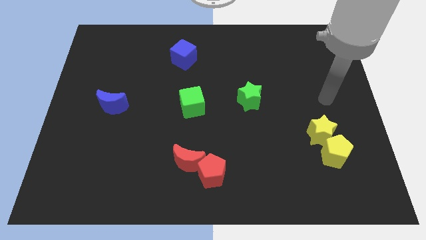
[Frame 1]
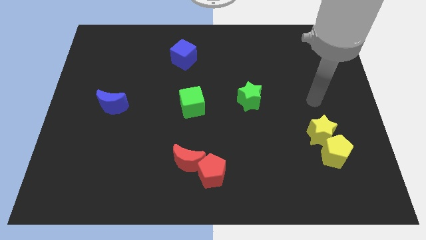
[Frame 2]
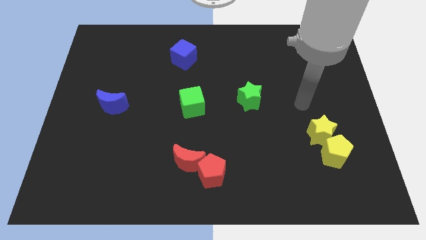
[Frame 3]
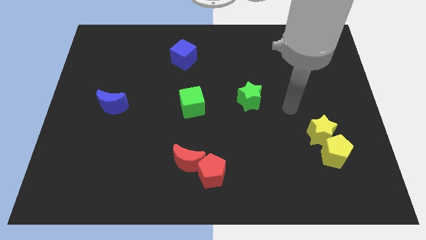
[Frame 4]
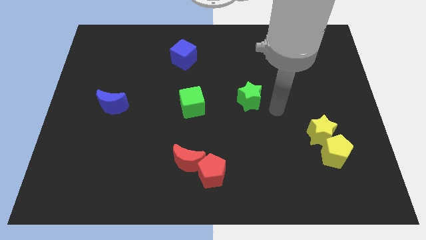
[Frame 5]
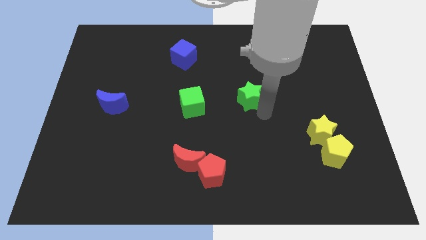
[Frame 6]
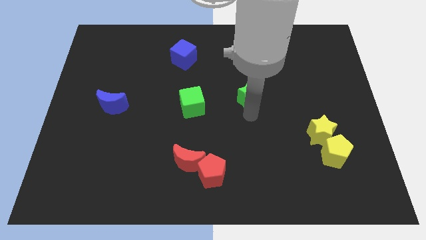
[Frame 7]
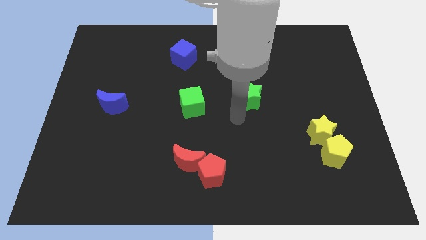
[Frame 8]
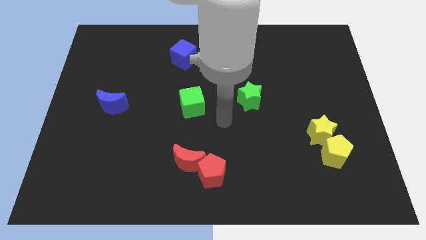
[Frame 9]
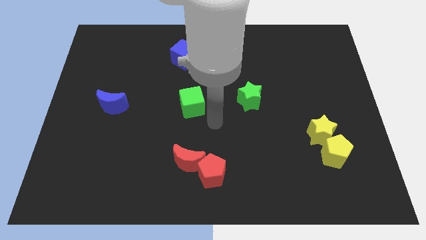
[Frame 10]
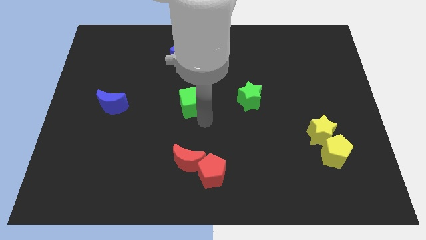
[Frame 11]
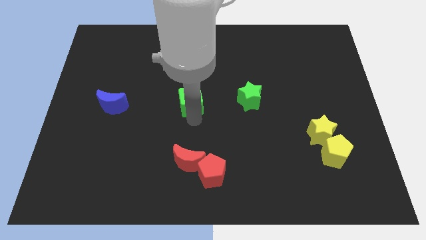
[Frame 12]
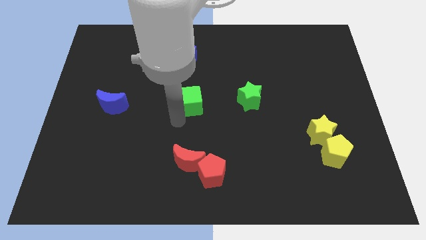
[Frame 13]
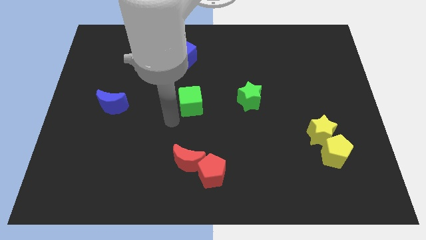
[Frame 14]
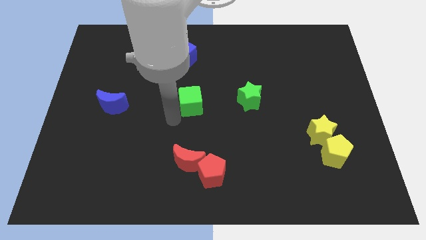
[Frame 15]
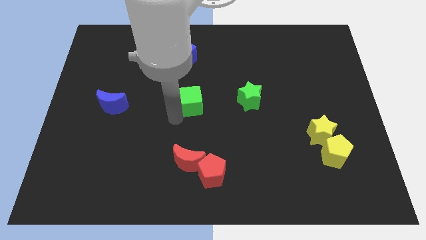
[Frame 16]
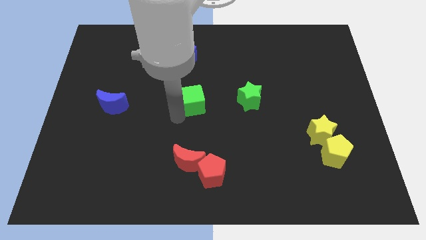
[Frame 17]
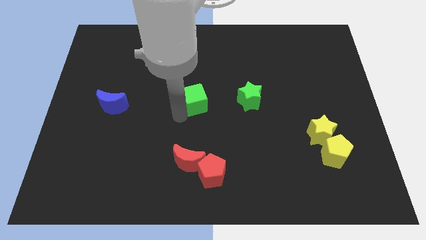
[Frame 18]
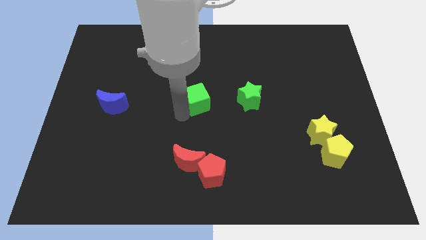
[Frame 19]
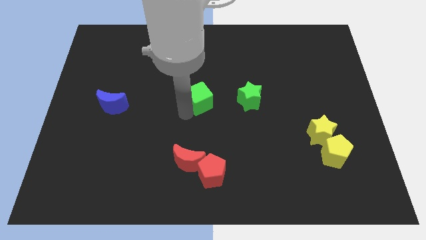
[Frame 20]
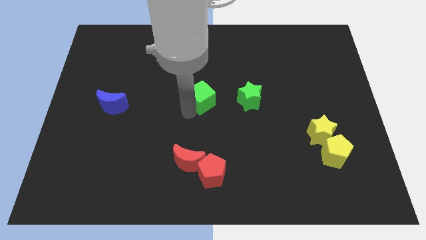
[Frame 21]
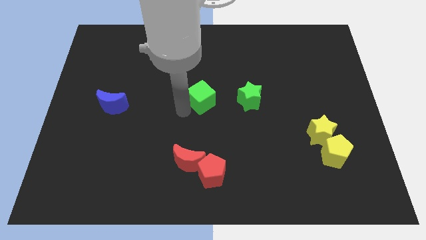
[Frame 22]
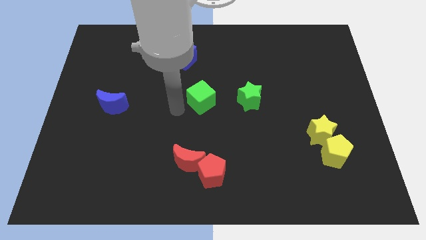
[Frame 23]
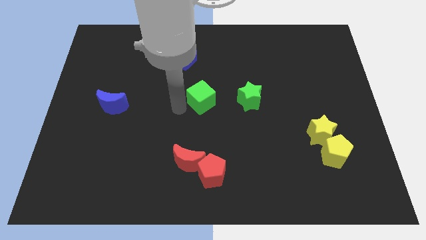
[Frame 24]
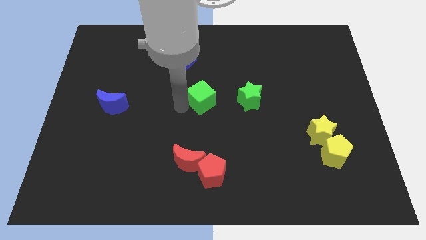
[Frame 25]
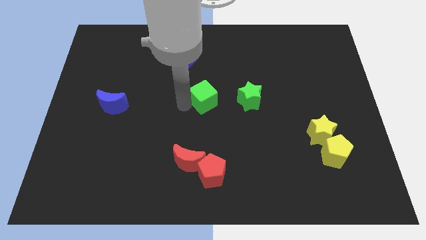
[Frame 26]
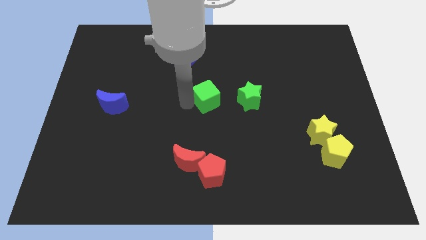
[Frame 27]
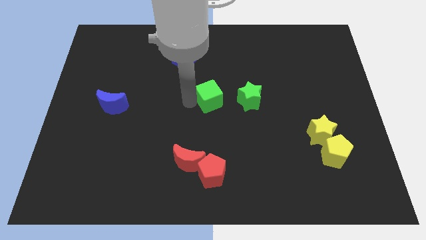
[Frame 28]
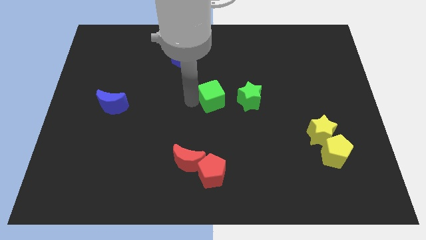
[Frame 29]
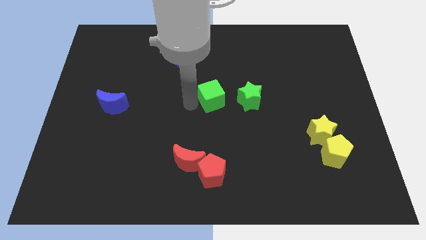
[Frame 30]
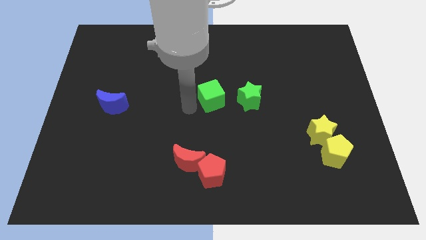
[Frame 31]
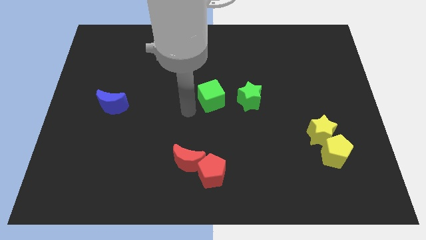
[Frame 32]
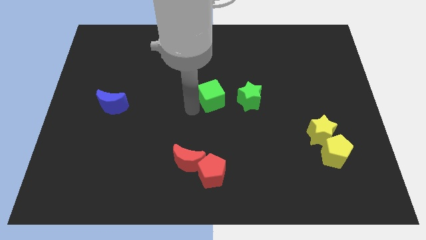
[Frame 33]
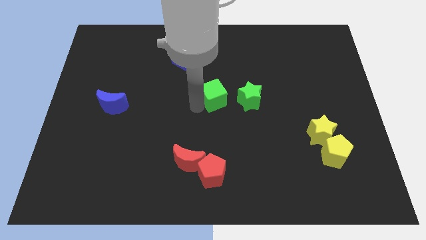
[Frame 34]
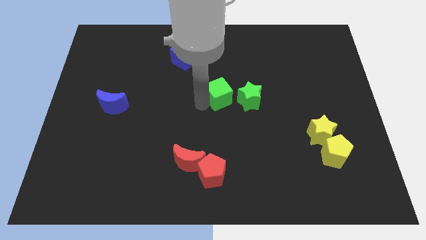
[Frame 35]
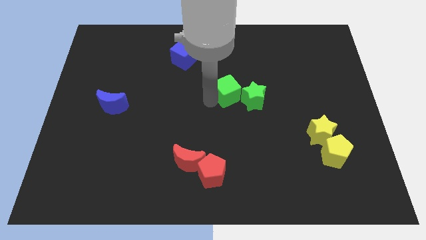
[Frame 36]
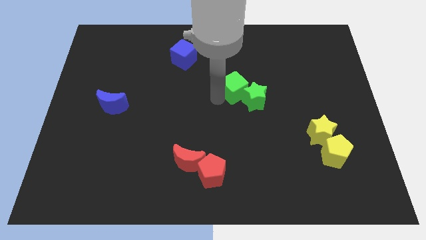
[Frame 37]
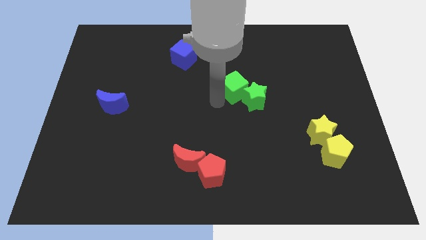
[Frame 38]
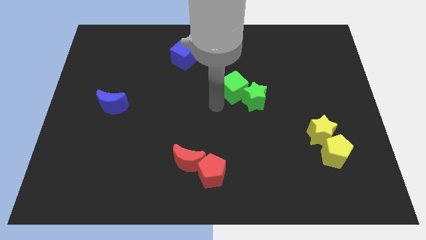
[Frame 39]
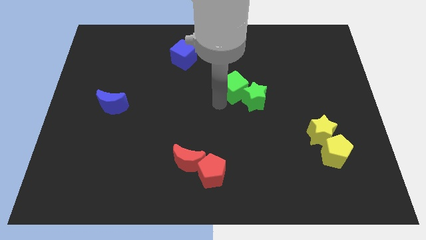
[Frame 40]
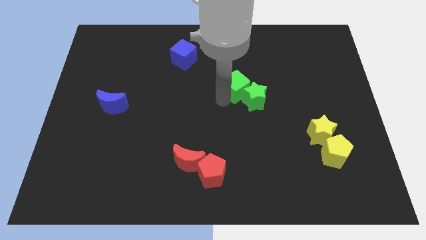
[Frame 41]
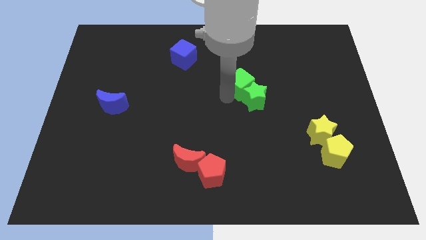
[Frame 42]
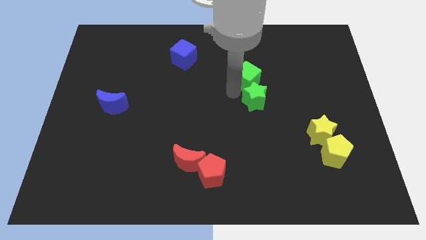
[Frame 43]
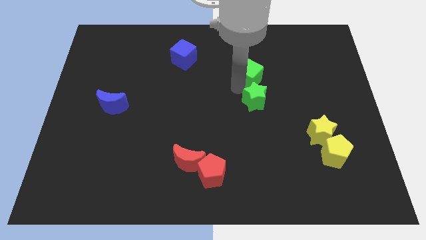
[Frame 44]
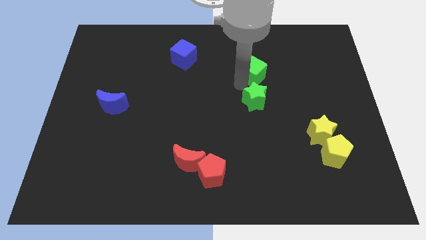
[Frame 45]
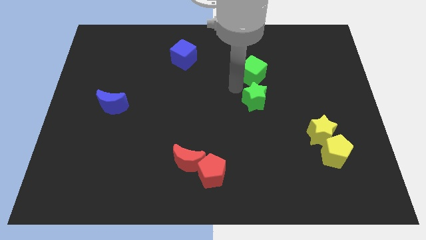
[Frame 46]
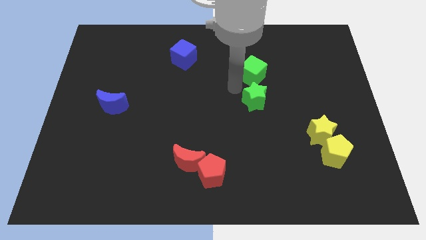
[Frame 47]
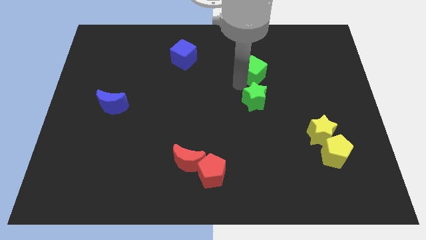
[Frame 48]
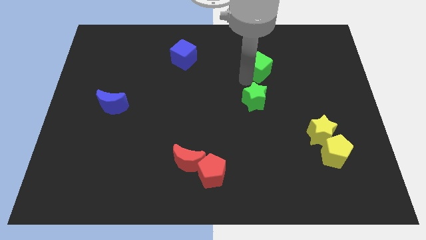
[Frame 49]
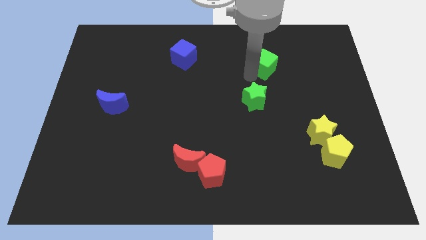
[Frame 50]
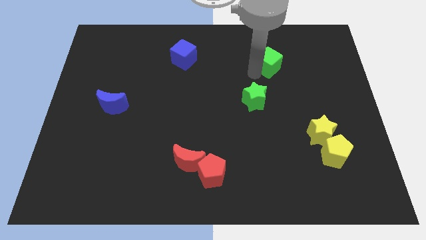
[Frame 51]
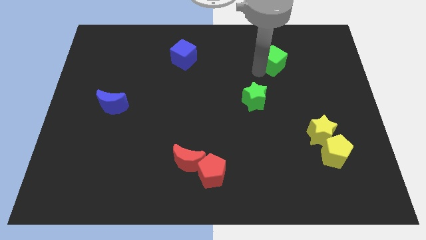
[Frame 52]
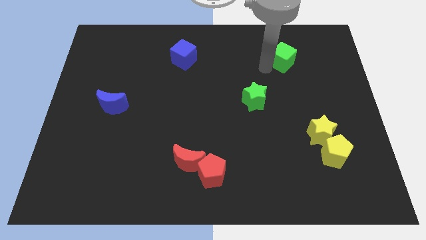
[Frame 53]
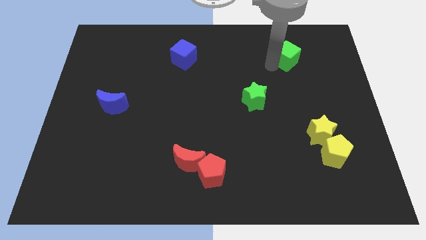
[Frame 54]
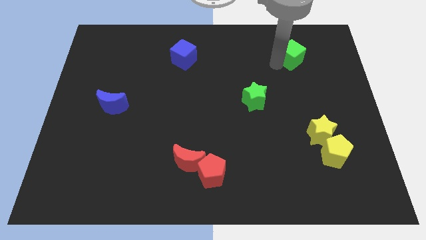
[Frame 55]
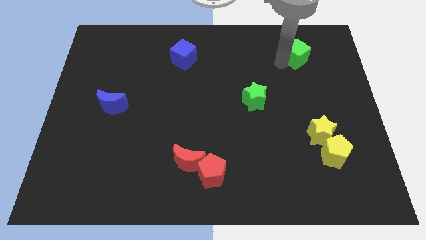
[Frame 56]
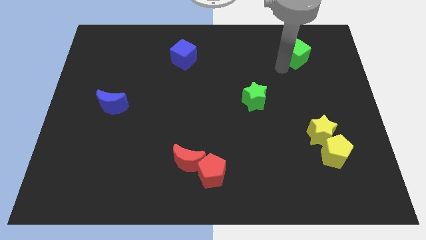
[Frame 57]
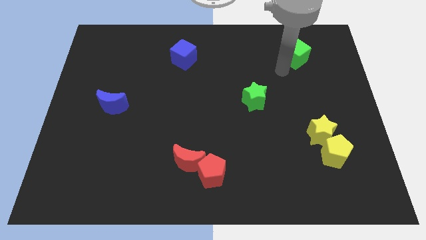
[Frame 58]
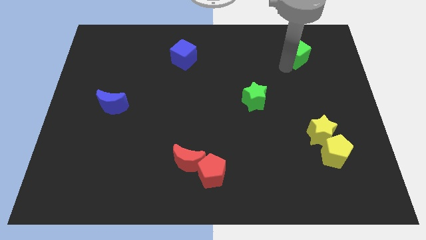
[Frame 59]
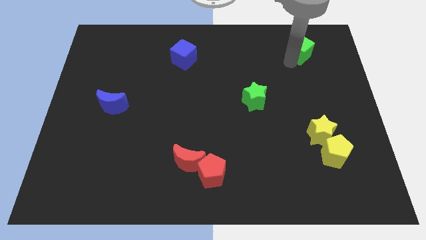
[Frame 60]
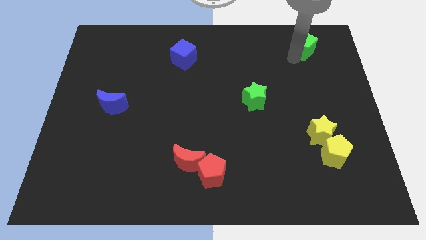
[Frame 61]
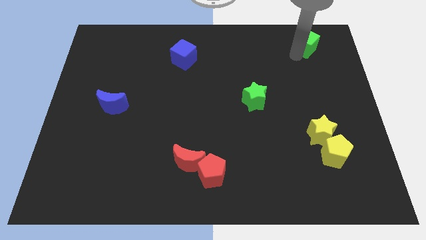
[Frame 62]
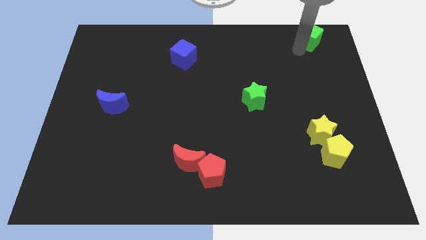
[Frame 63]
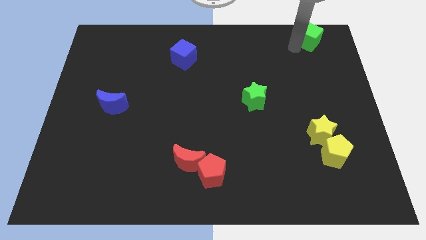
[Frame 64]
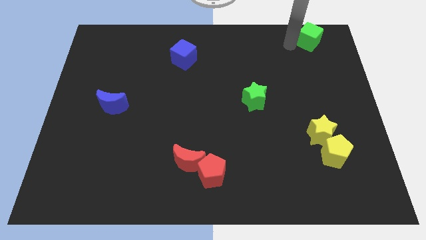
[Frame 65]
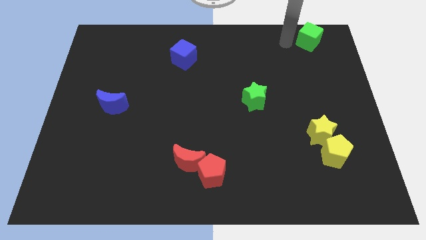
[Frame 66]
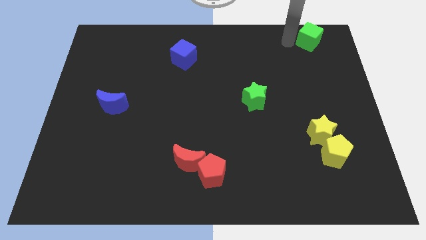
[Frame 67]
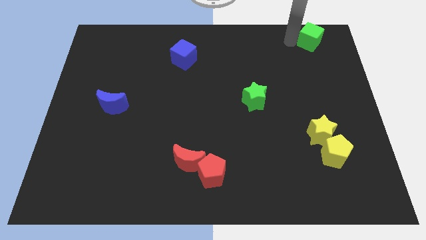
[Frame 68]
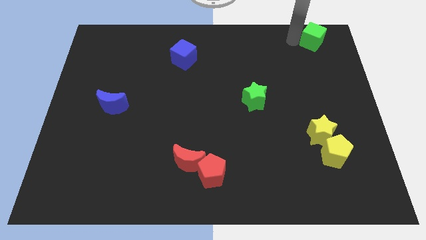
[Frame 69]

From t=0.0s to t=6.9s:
push the green cube to the upper right corner
